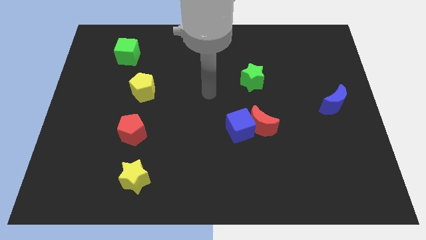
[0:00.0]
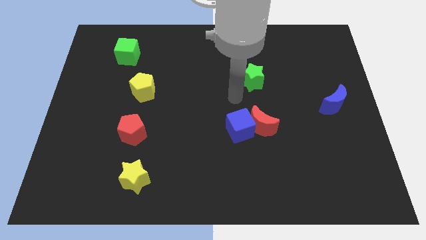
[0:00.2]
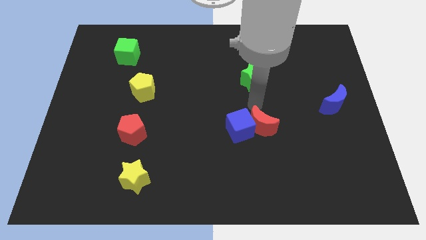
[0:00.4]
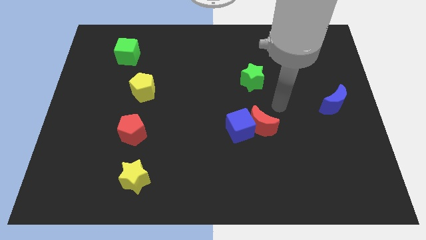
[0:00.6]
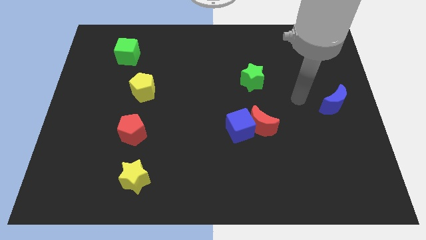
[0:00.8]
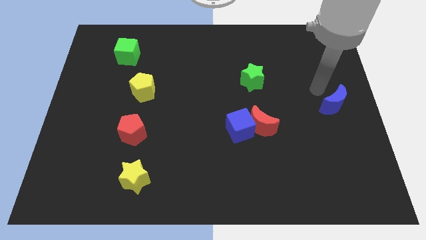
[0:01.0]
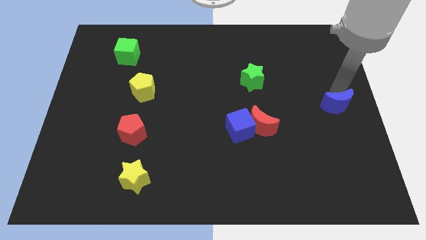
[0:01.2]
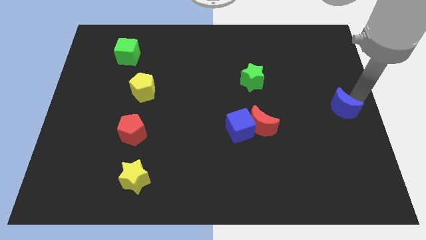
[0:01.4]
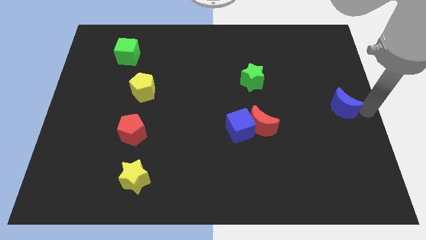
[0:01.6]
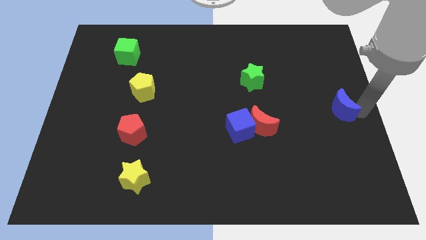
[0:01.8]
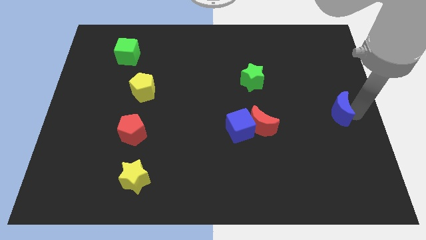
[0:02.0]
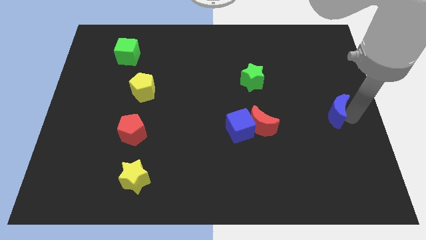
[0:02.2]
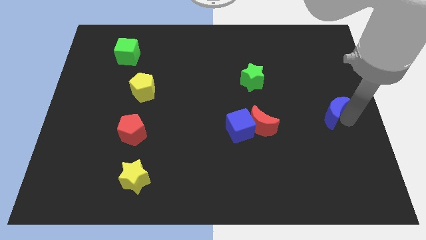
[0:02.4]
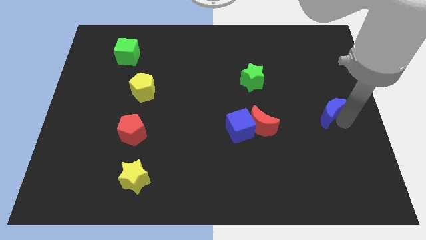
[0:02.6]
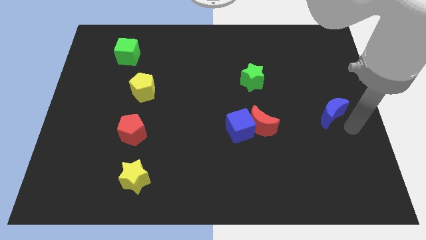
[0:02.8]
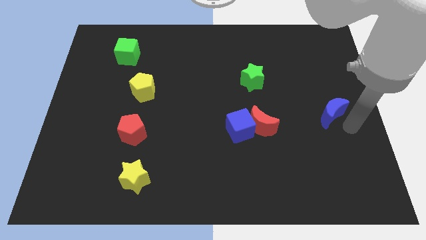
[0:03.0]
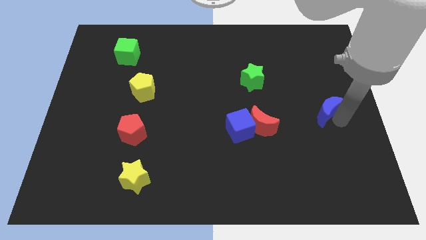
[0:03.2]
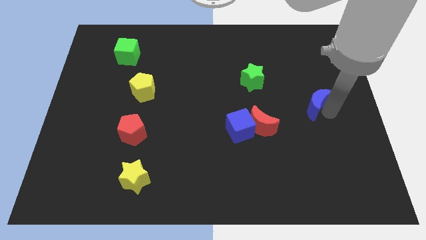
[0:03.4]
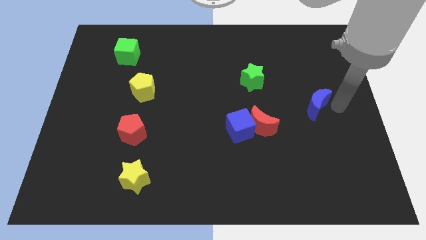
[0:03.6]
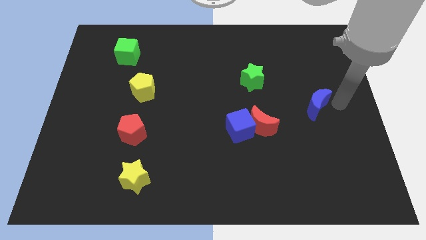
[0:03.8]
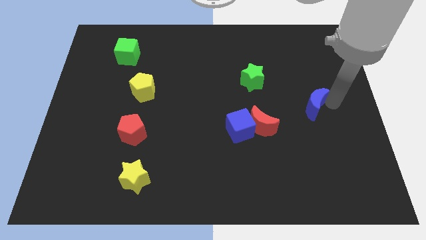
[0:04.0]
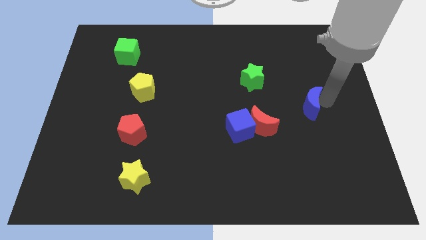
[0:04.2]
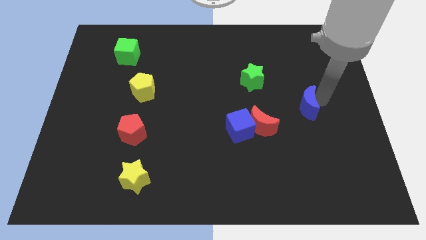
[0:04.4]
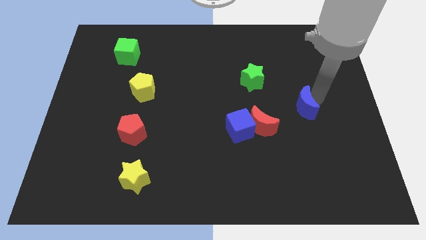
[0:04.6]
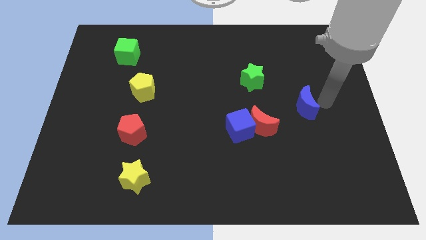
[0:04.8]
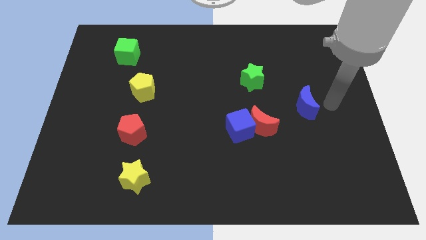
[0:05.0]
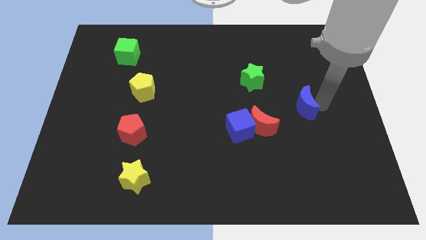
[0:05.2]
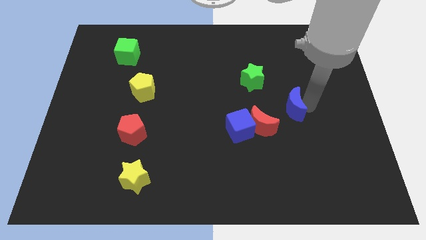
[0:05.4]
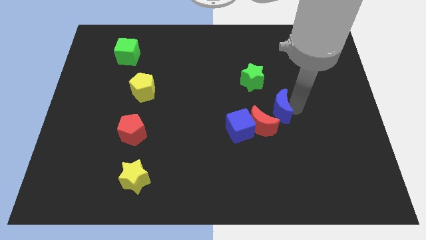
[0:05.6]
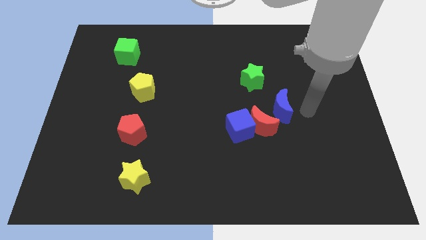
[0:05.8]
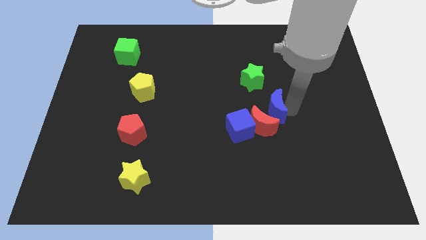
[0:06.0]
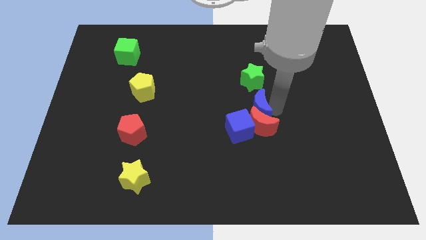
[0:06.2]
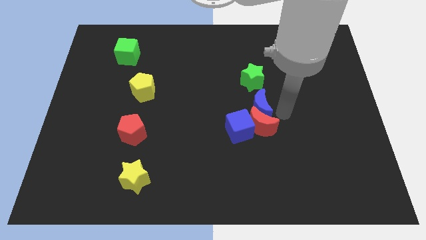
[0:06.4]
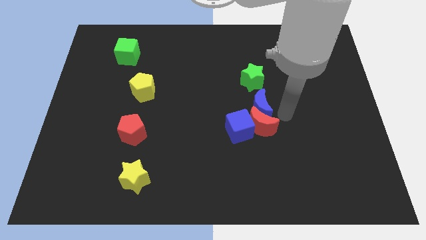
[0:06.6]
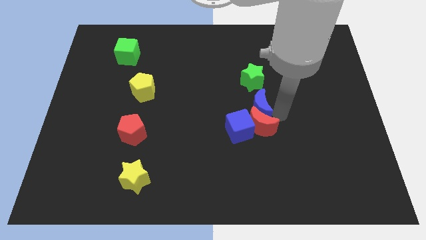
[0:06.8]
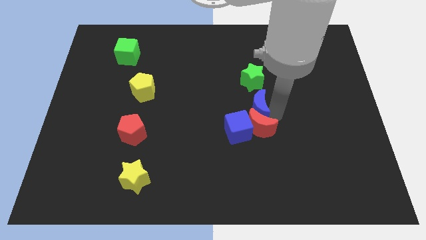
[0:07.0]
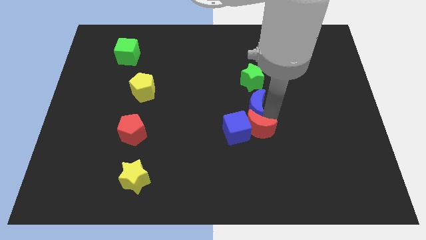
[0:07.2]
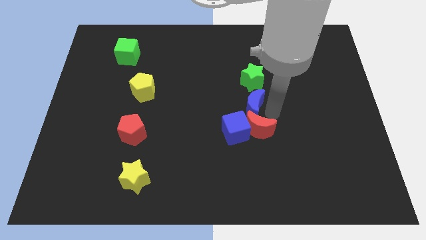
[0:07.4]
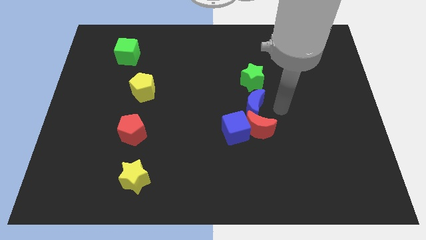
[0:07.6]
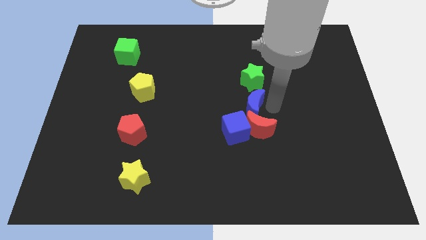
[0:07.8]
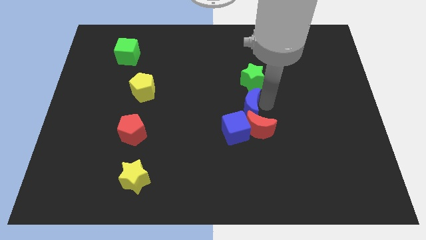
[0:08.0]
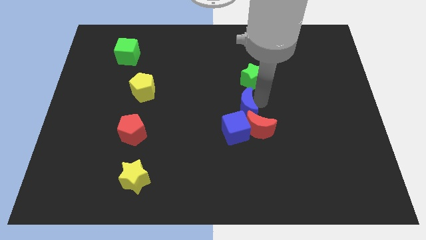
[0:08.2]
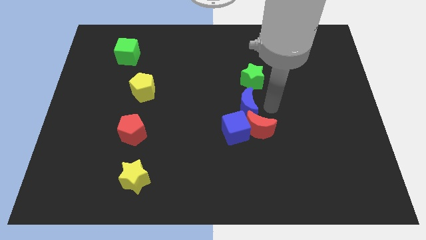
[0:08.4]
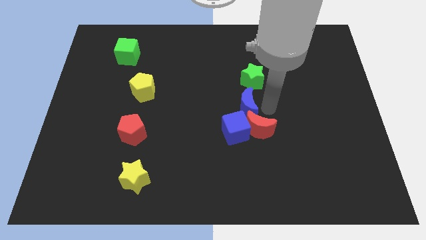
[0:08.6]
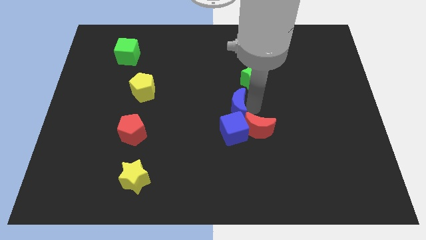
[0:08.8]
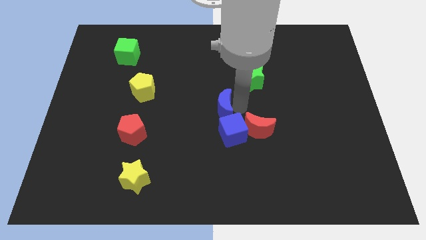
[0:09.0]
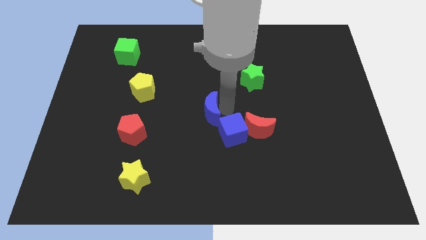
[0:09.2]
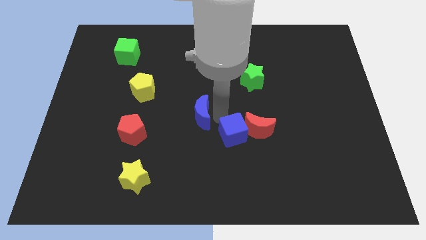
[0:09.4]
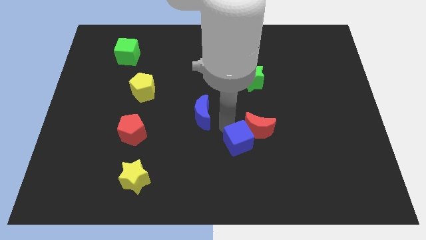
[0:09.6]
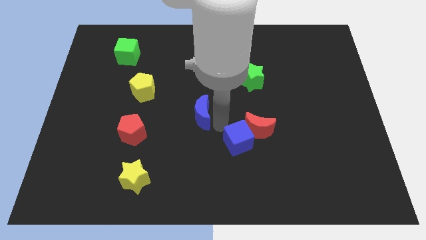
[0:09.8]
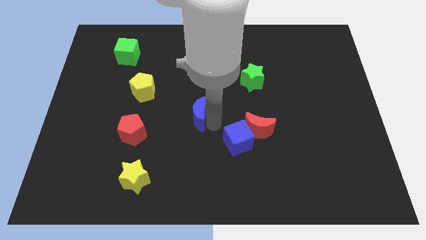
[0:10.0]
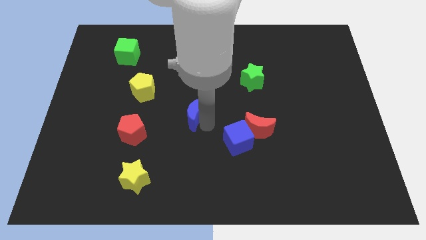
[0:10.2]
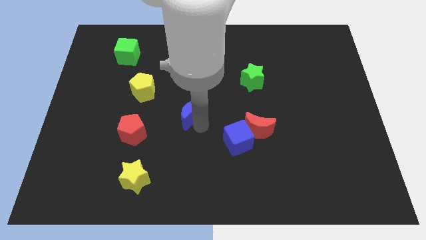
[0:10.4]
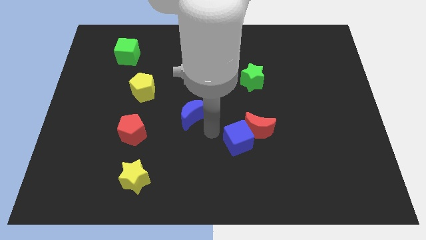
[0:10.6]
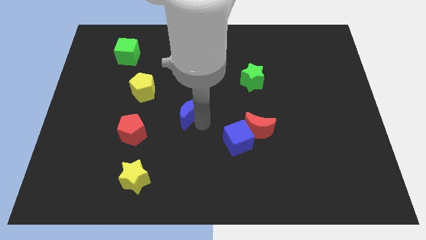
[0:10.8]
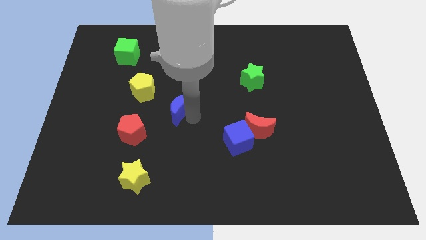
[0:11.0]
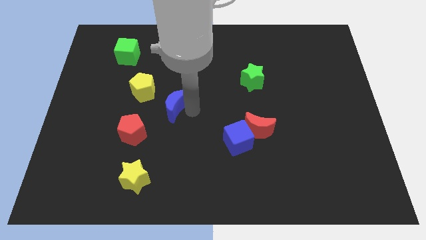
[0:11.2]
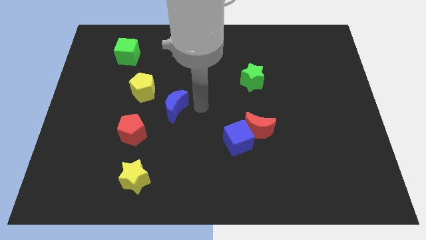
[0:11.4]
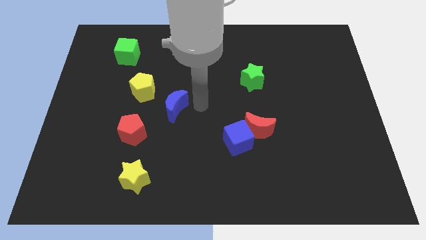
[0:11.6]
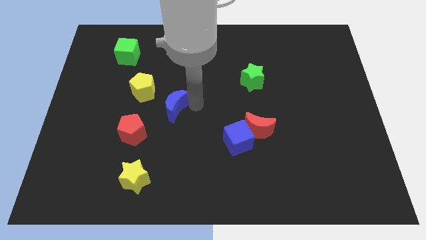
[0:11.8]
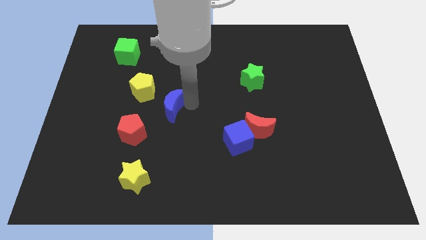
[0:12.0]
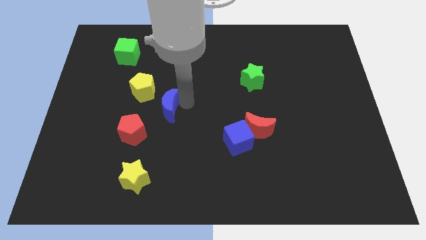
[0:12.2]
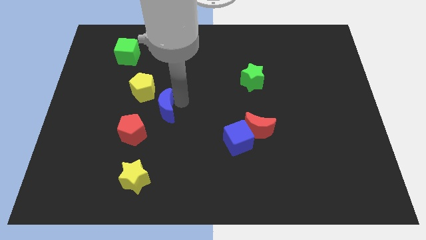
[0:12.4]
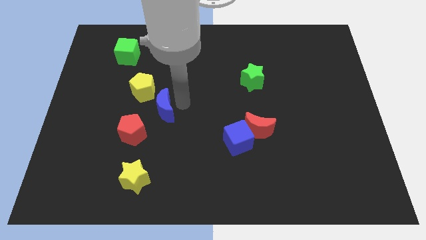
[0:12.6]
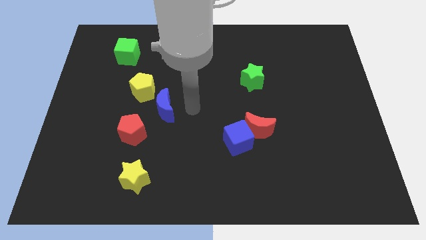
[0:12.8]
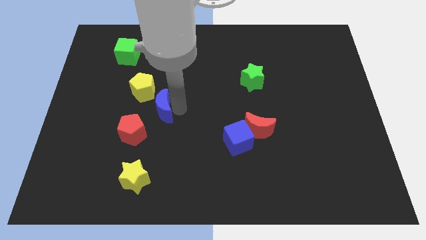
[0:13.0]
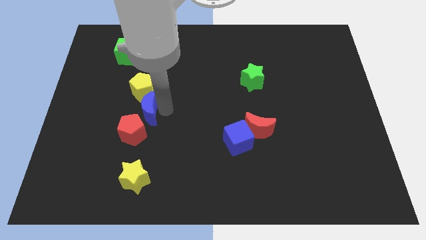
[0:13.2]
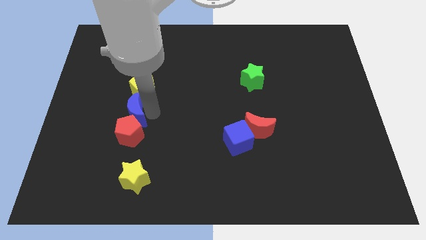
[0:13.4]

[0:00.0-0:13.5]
move the blue moon to the bottom left side of the yellow pentagon

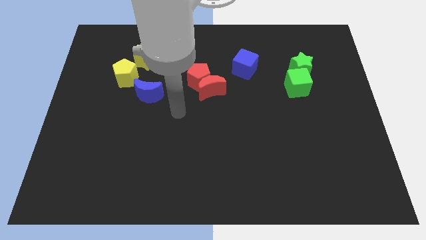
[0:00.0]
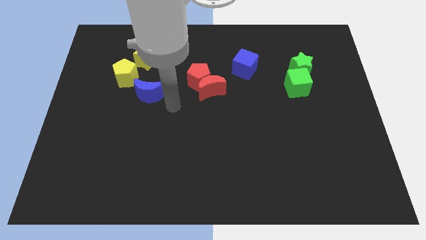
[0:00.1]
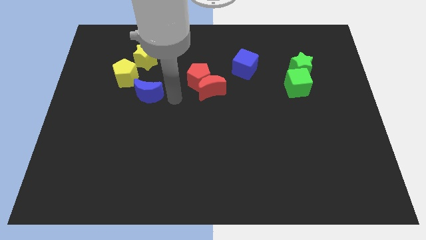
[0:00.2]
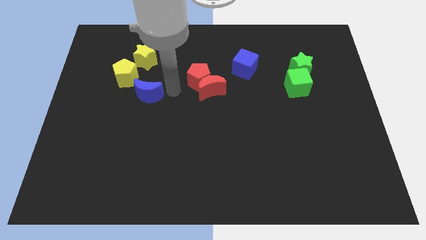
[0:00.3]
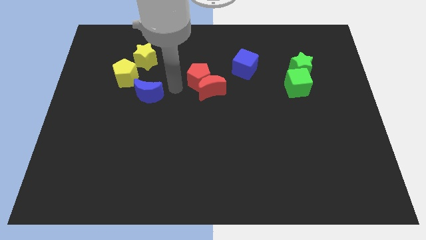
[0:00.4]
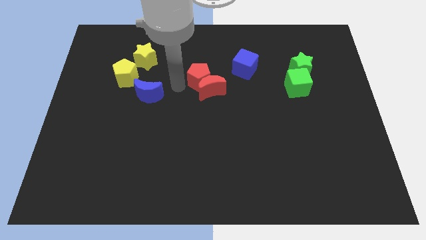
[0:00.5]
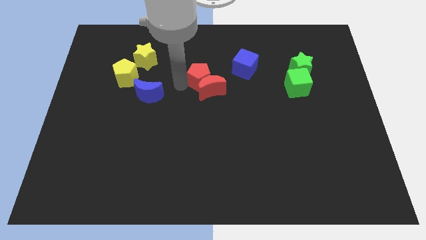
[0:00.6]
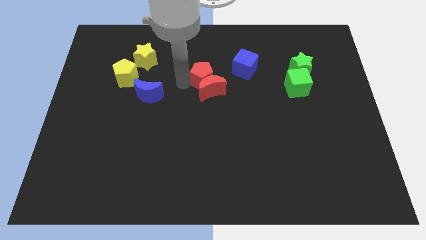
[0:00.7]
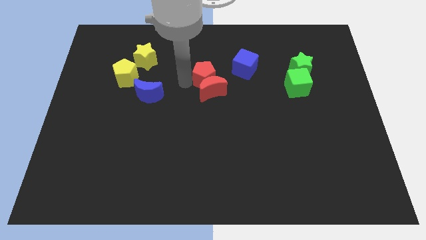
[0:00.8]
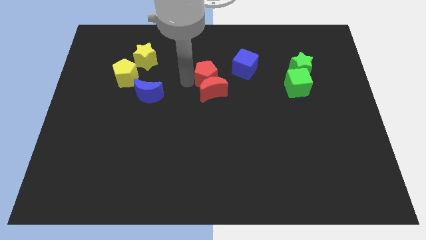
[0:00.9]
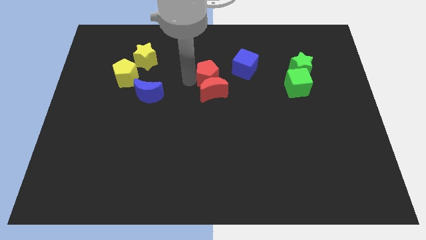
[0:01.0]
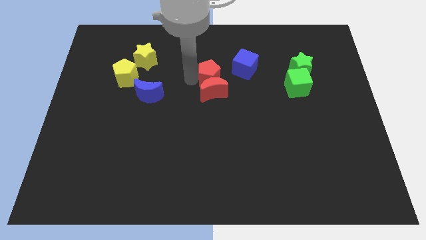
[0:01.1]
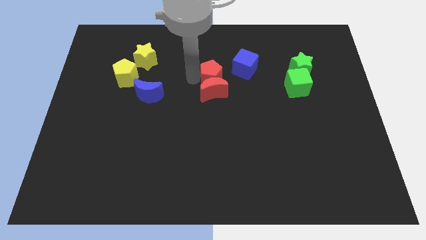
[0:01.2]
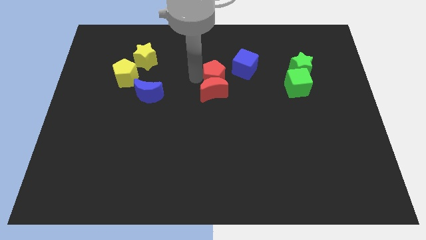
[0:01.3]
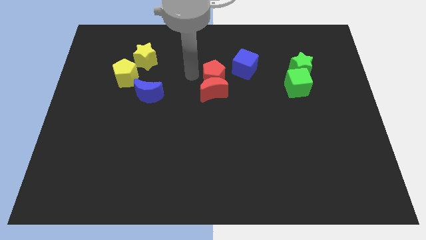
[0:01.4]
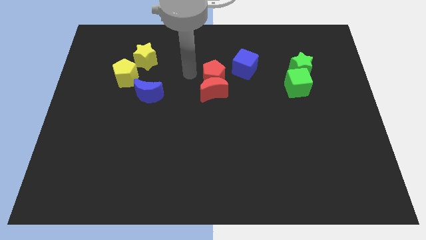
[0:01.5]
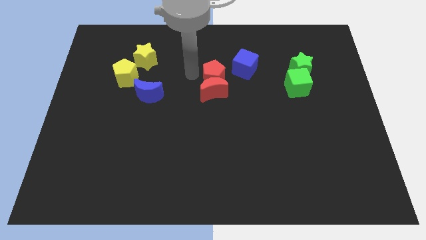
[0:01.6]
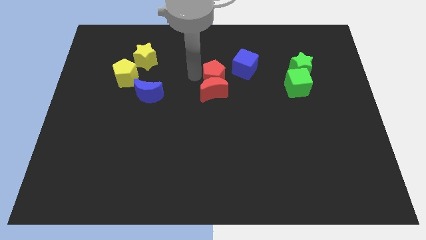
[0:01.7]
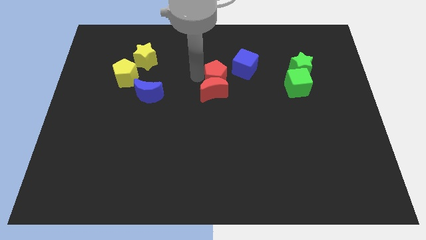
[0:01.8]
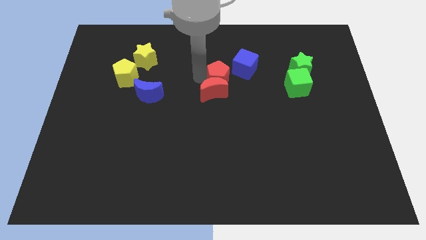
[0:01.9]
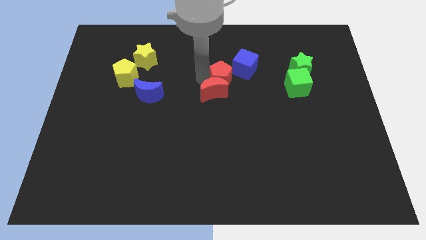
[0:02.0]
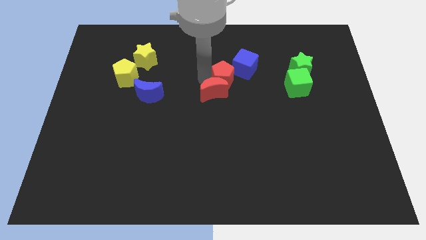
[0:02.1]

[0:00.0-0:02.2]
put the red pentagon to the right side of the red moon
